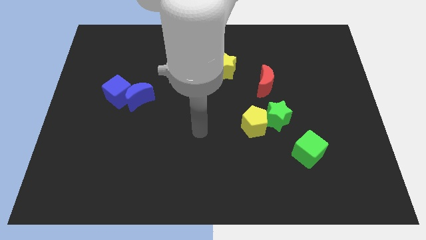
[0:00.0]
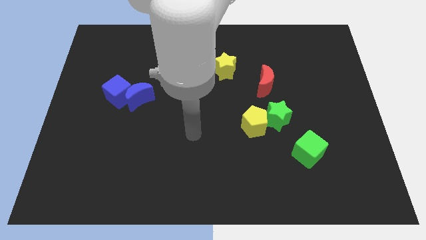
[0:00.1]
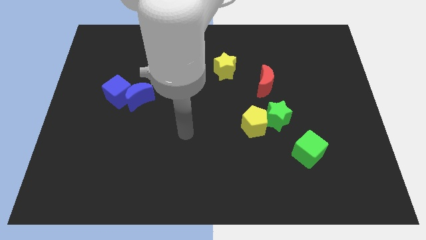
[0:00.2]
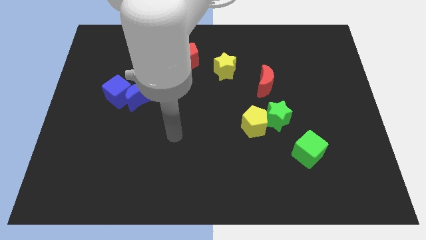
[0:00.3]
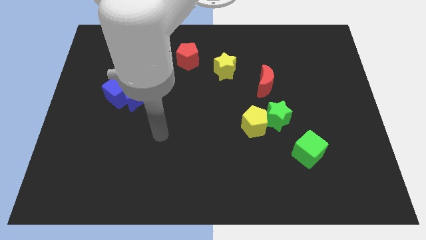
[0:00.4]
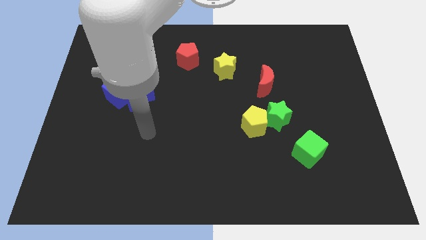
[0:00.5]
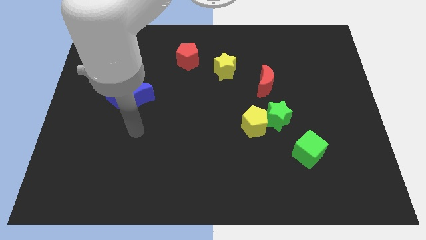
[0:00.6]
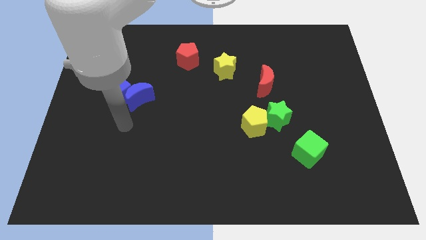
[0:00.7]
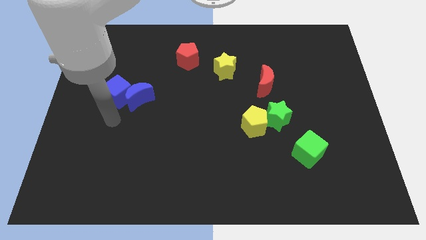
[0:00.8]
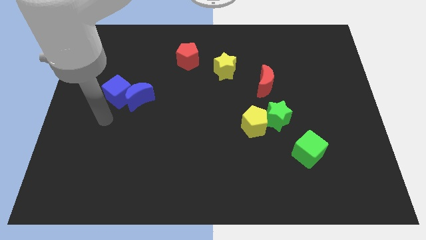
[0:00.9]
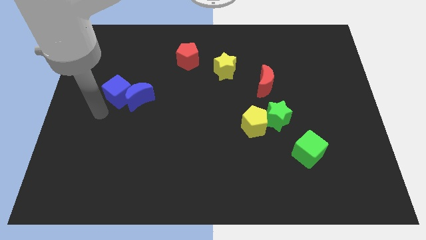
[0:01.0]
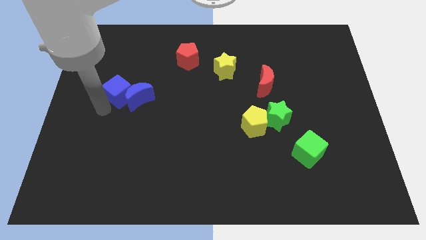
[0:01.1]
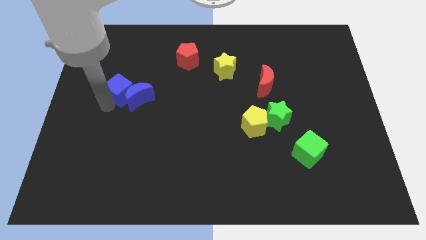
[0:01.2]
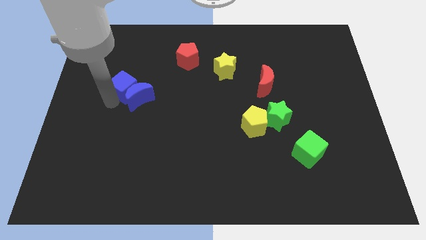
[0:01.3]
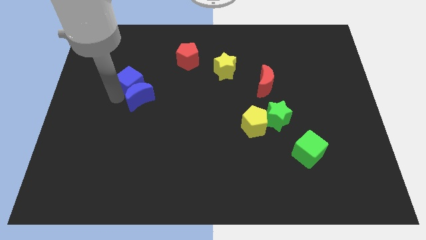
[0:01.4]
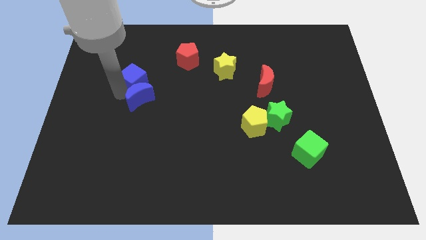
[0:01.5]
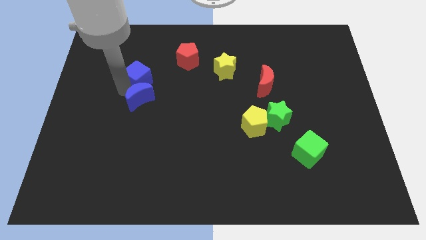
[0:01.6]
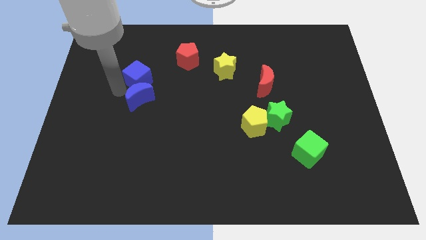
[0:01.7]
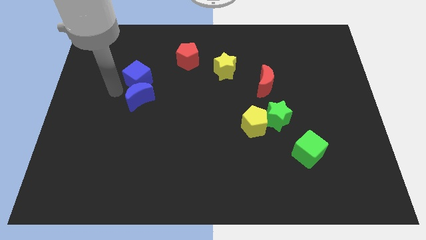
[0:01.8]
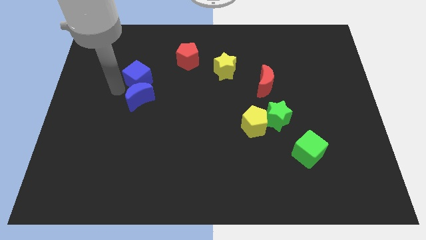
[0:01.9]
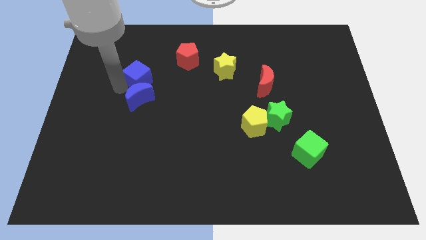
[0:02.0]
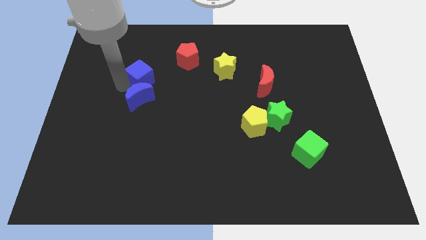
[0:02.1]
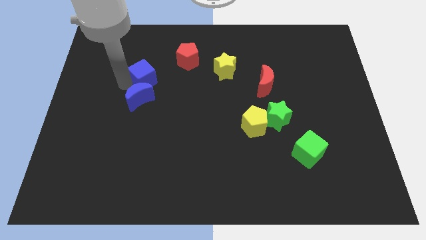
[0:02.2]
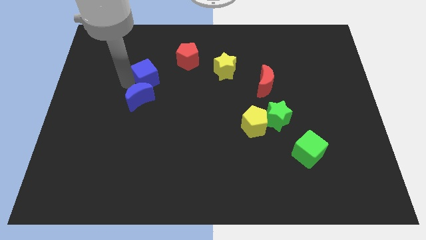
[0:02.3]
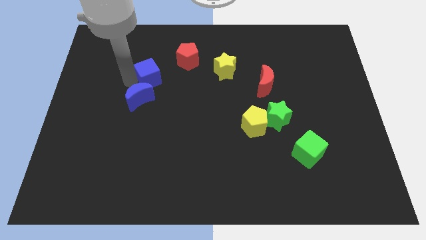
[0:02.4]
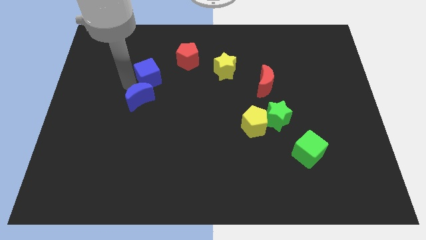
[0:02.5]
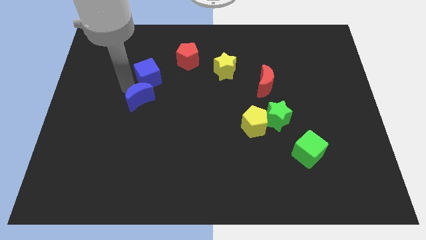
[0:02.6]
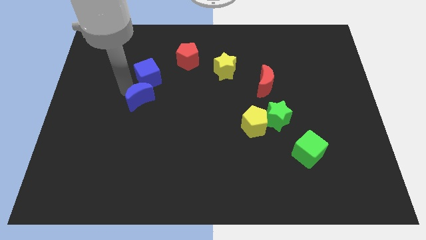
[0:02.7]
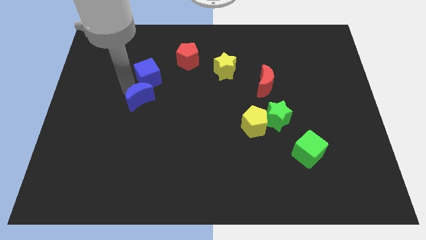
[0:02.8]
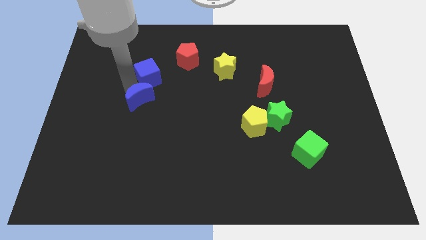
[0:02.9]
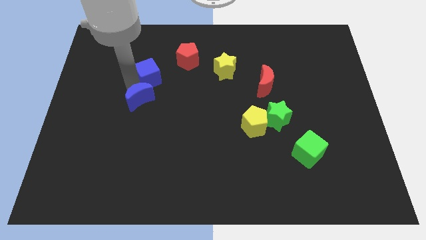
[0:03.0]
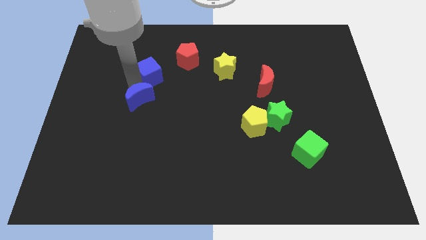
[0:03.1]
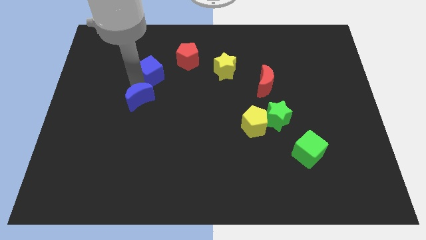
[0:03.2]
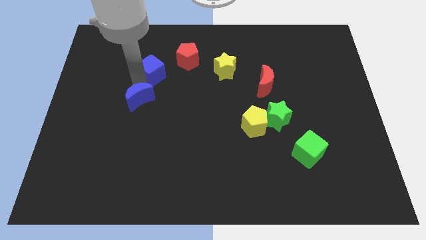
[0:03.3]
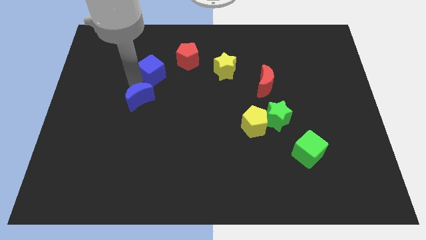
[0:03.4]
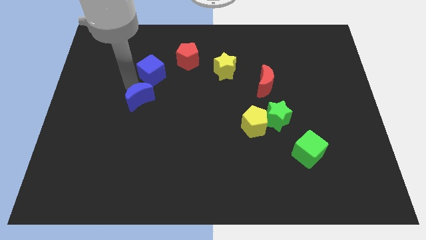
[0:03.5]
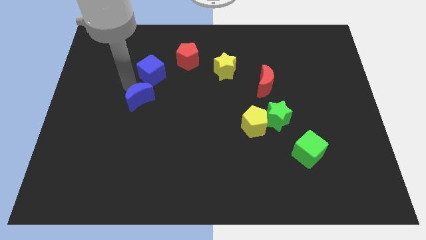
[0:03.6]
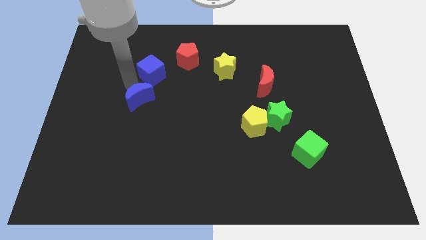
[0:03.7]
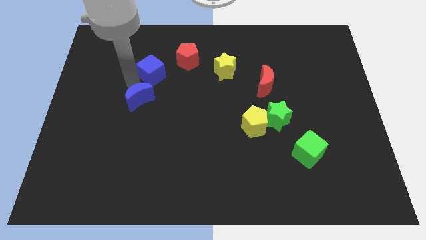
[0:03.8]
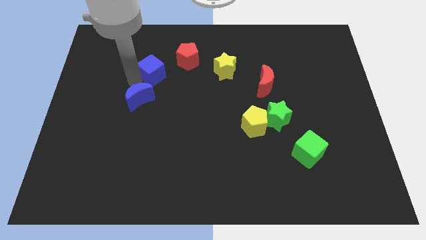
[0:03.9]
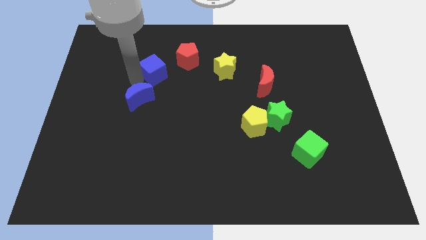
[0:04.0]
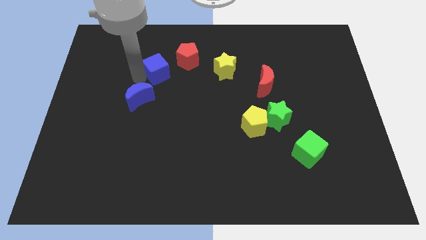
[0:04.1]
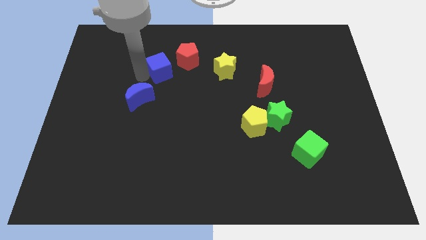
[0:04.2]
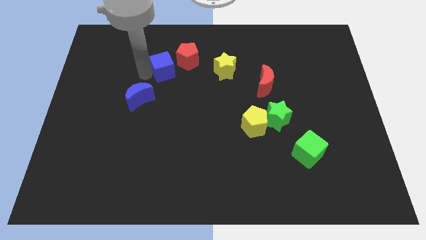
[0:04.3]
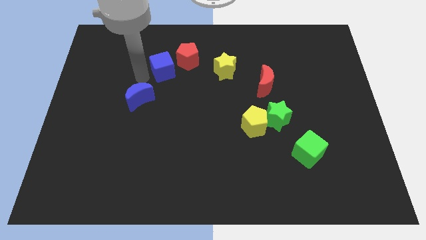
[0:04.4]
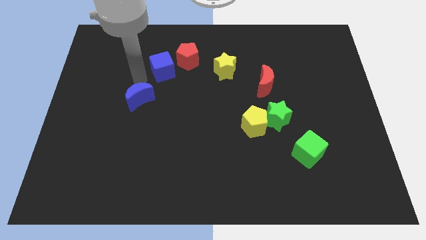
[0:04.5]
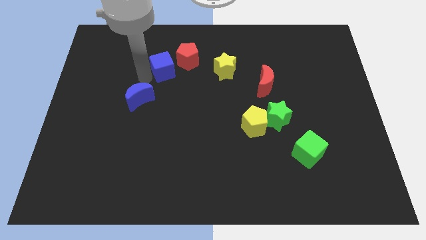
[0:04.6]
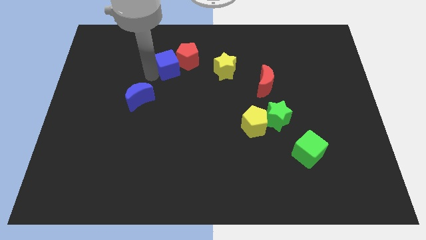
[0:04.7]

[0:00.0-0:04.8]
push the blue cube close to the red pentagon

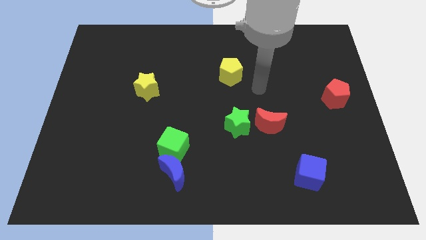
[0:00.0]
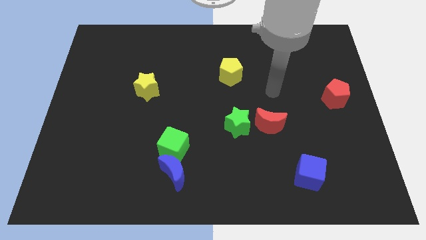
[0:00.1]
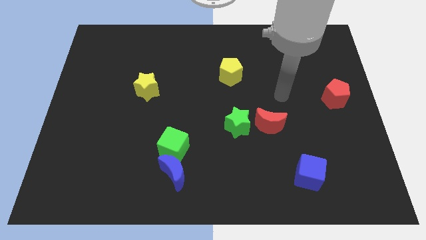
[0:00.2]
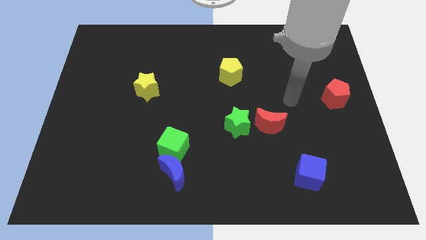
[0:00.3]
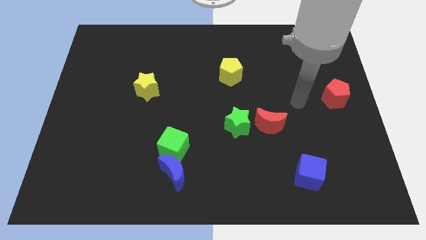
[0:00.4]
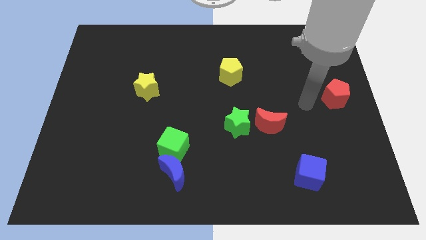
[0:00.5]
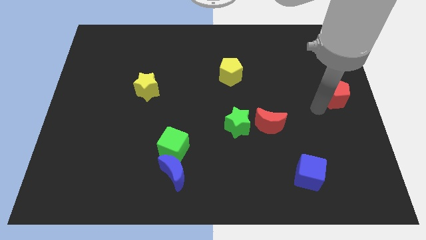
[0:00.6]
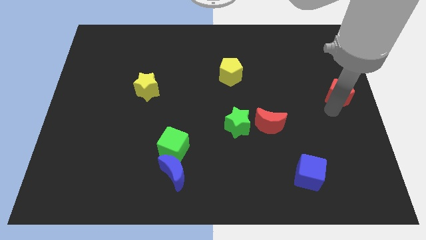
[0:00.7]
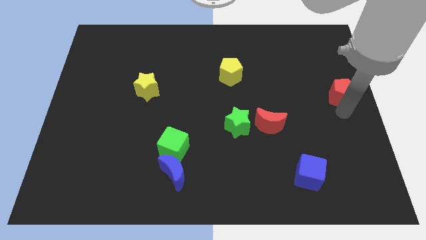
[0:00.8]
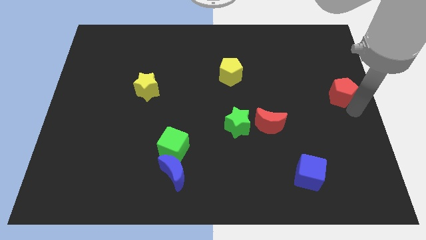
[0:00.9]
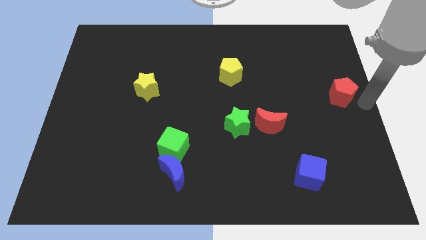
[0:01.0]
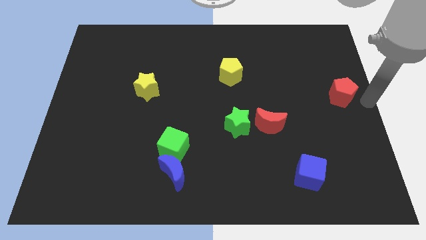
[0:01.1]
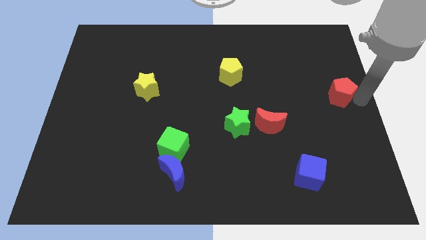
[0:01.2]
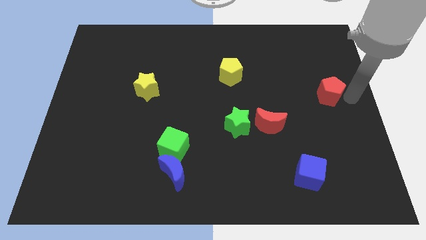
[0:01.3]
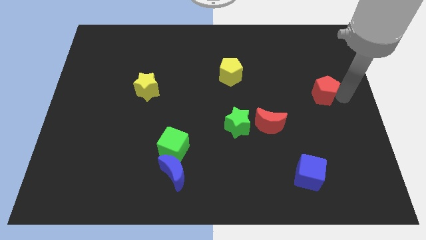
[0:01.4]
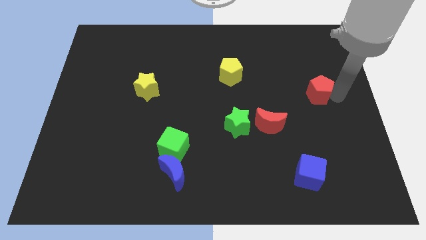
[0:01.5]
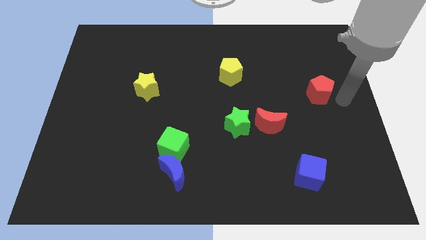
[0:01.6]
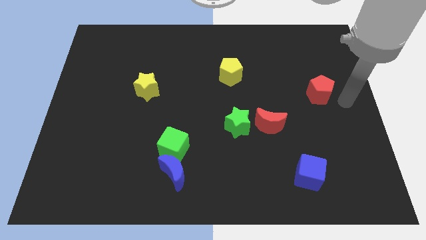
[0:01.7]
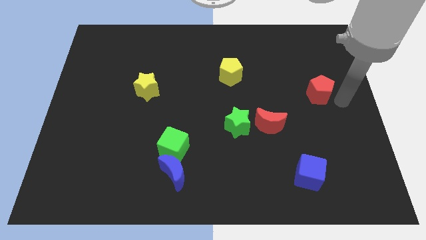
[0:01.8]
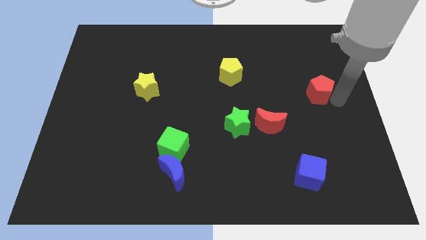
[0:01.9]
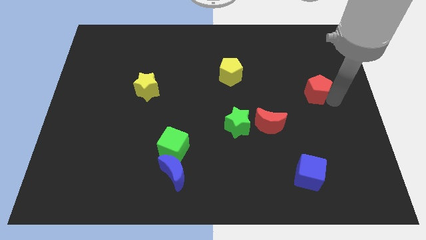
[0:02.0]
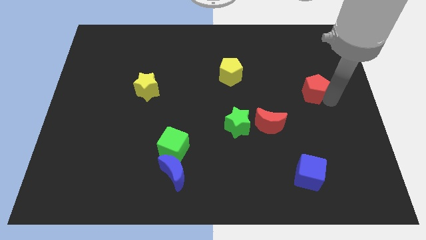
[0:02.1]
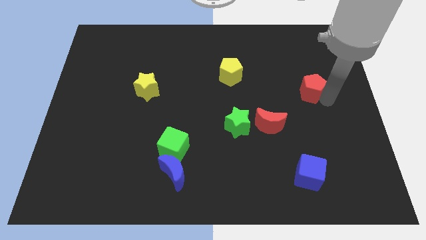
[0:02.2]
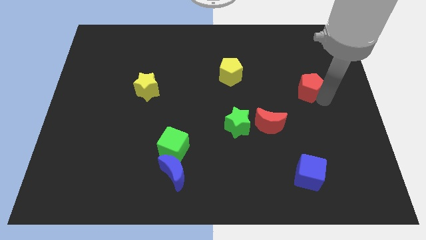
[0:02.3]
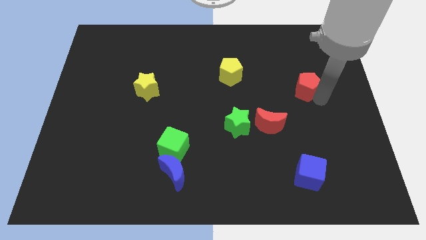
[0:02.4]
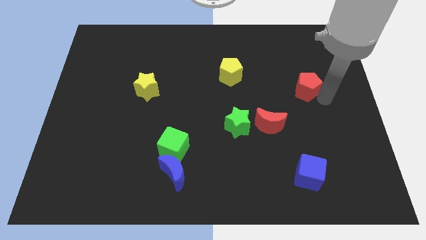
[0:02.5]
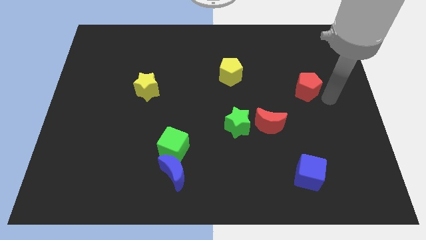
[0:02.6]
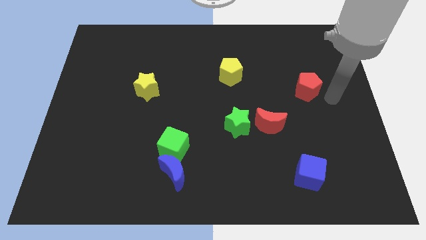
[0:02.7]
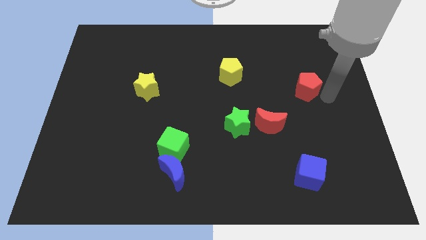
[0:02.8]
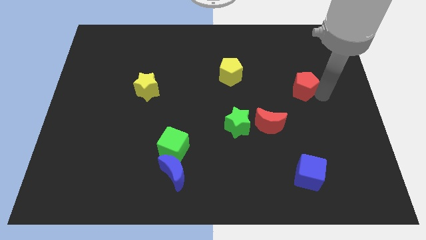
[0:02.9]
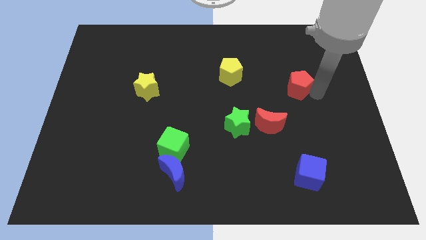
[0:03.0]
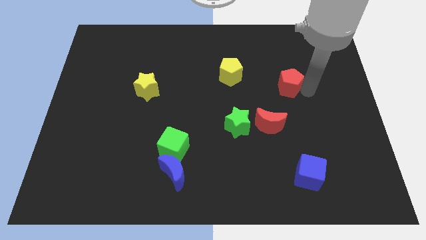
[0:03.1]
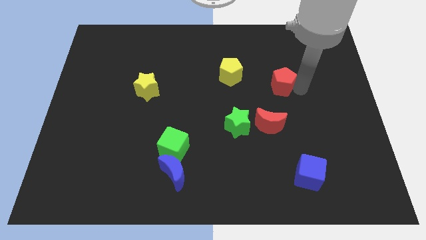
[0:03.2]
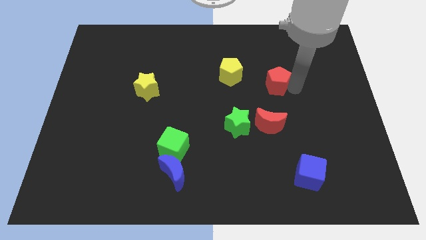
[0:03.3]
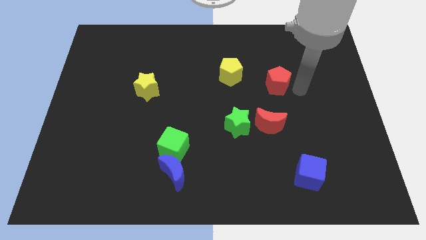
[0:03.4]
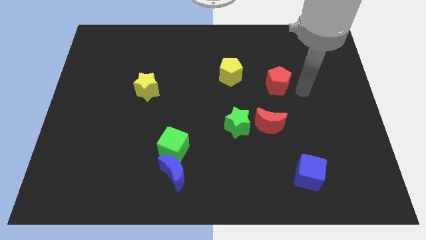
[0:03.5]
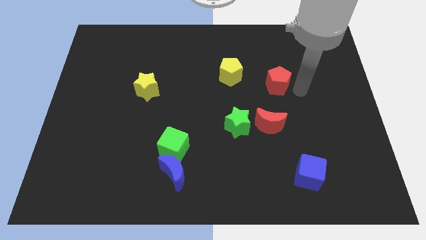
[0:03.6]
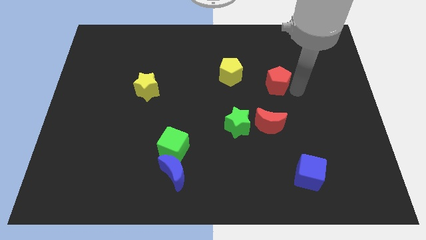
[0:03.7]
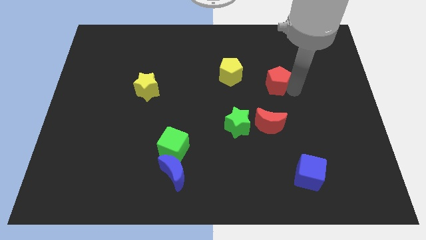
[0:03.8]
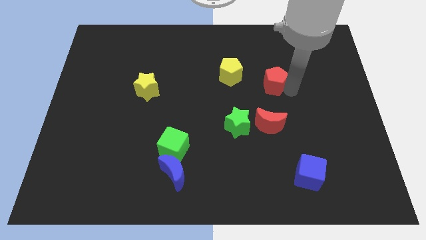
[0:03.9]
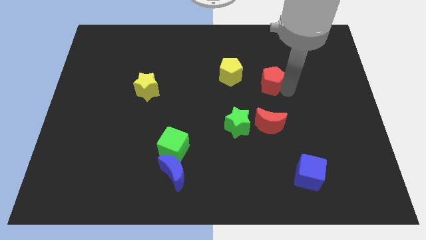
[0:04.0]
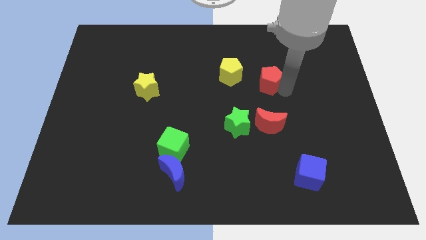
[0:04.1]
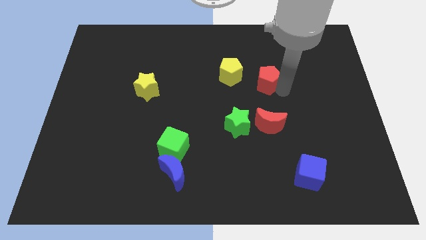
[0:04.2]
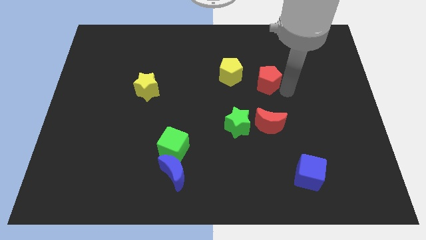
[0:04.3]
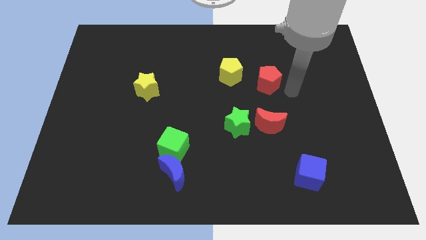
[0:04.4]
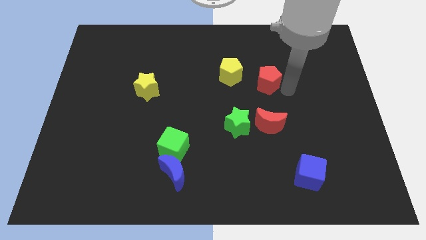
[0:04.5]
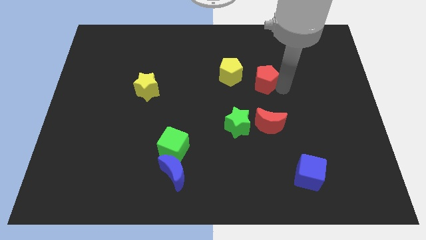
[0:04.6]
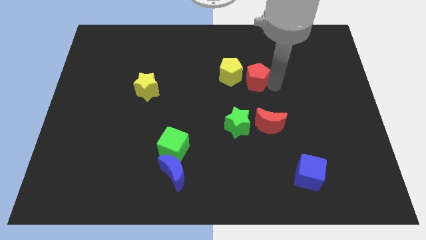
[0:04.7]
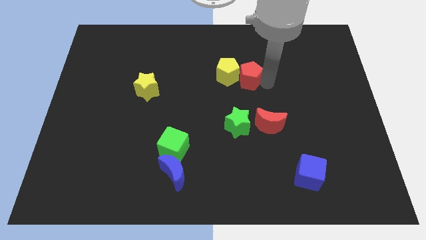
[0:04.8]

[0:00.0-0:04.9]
put the red pentagon to the yellow pentagon
